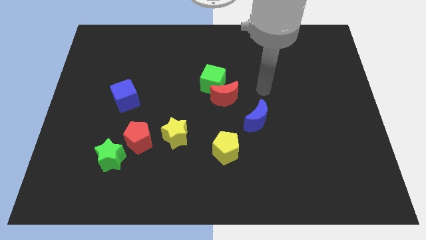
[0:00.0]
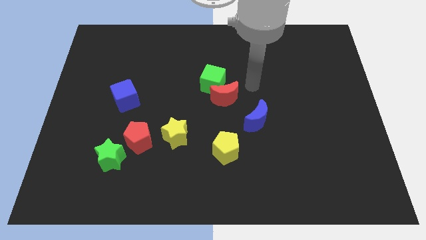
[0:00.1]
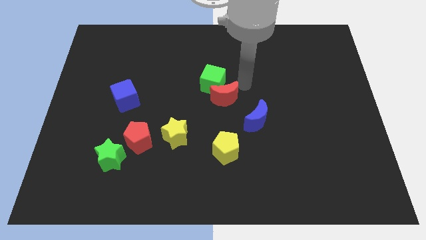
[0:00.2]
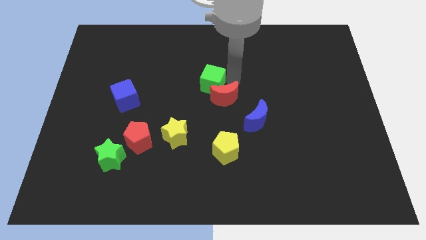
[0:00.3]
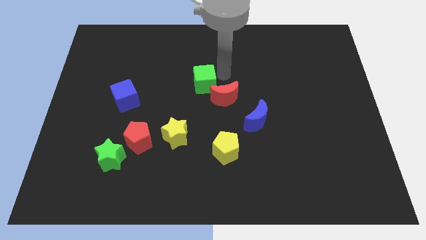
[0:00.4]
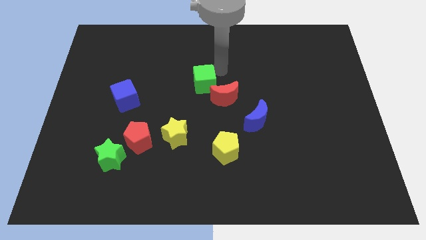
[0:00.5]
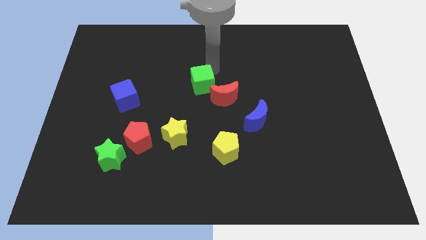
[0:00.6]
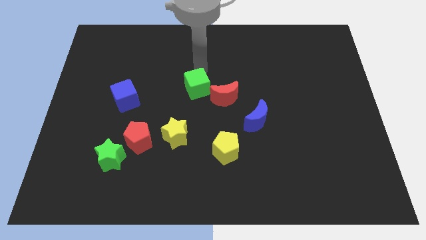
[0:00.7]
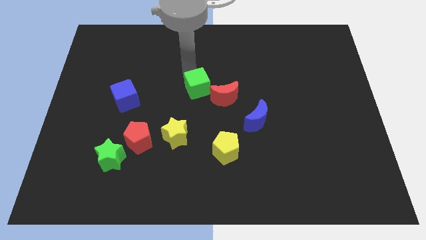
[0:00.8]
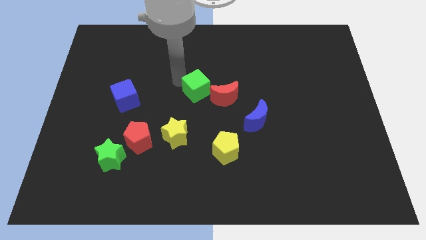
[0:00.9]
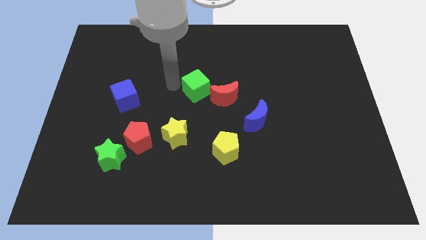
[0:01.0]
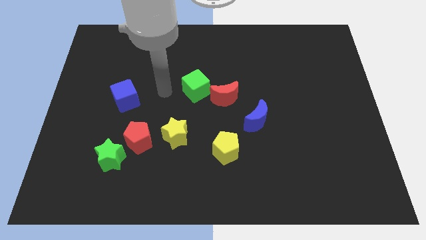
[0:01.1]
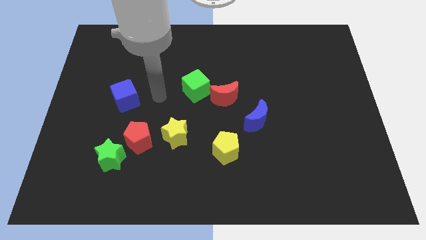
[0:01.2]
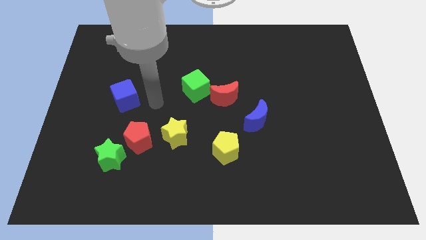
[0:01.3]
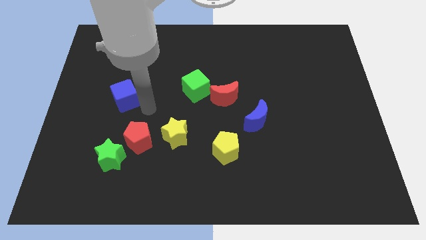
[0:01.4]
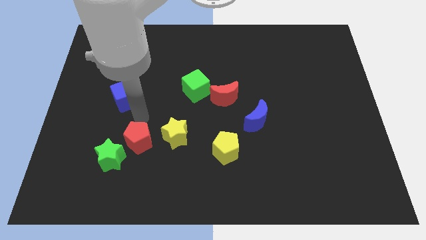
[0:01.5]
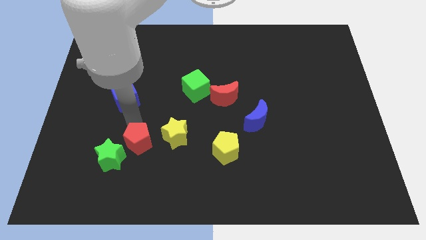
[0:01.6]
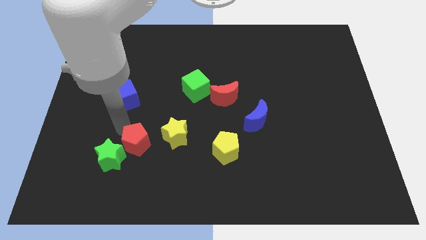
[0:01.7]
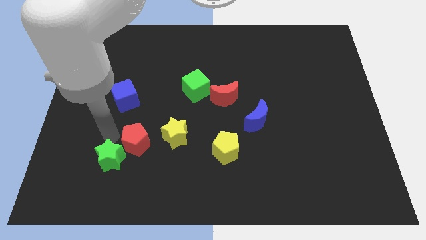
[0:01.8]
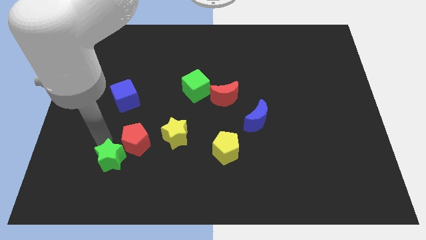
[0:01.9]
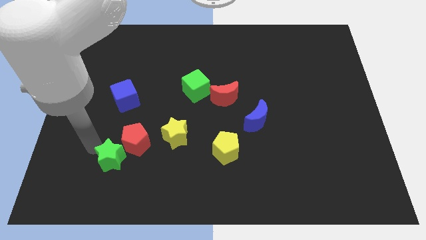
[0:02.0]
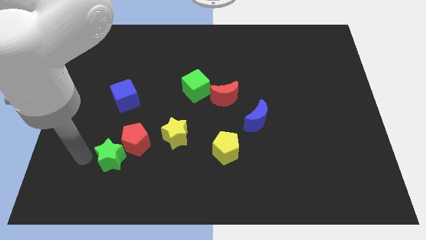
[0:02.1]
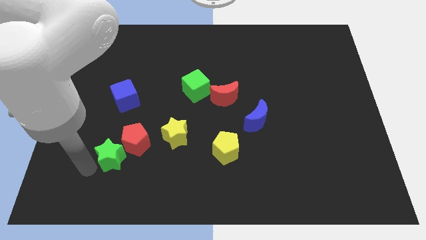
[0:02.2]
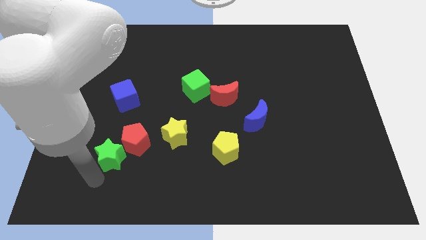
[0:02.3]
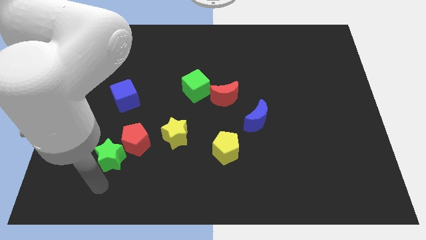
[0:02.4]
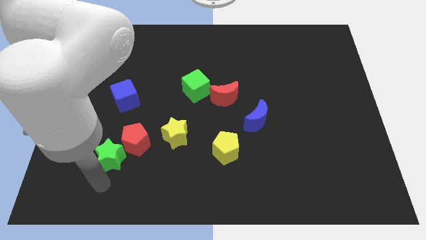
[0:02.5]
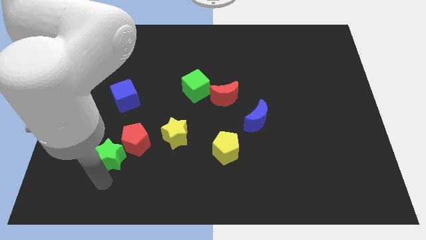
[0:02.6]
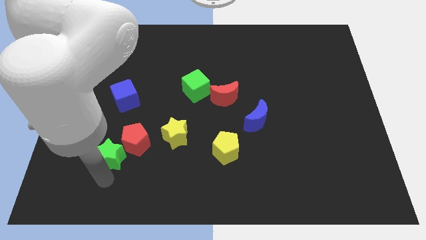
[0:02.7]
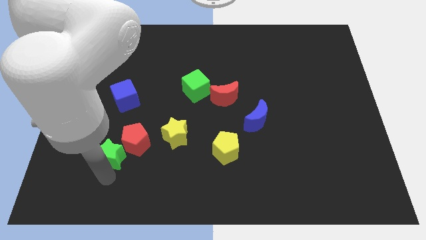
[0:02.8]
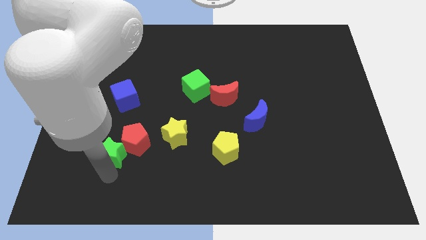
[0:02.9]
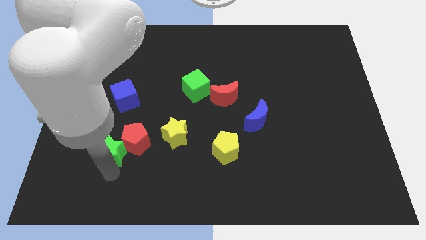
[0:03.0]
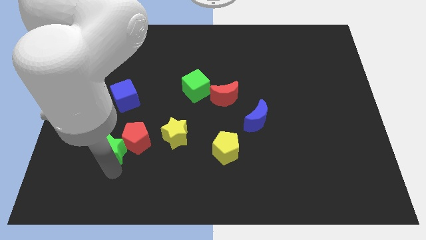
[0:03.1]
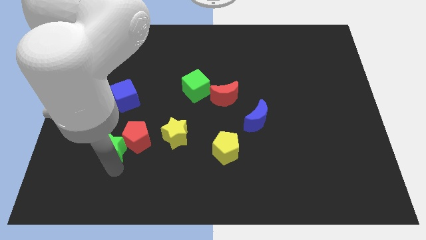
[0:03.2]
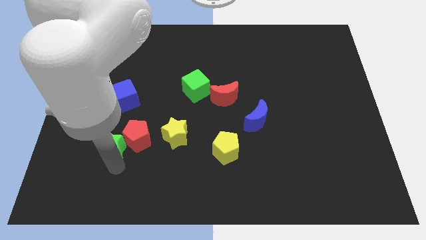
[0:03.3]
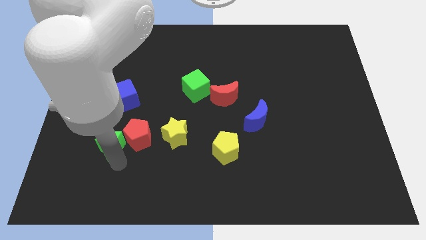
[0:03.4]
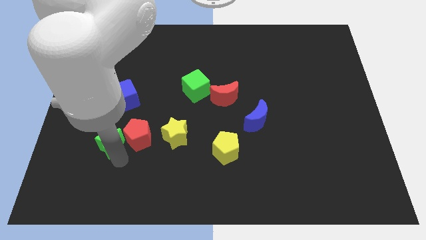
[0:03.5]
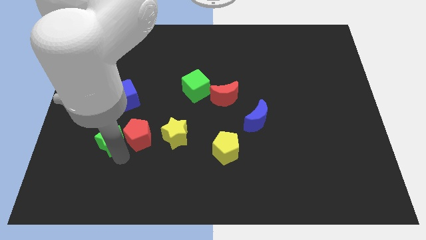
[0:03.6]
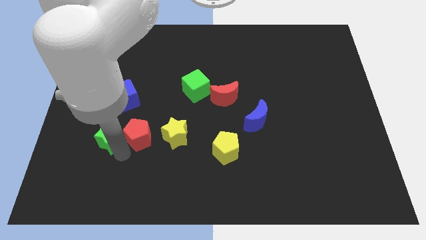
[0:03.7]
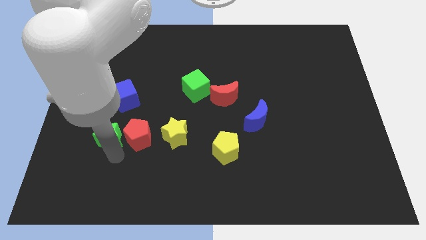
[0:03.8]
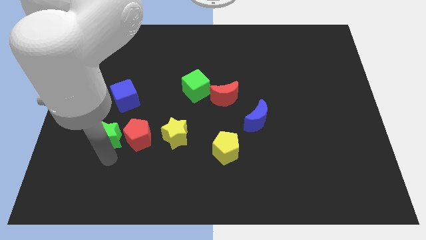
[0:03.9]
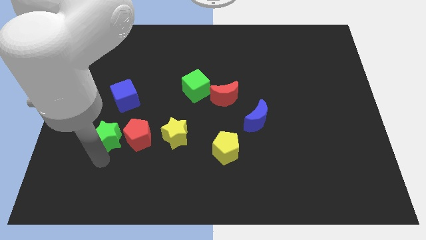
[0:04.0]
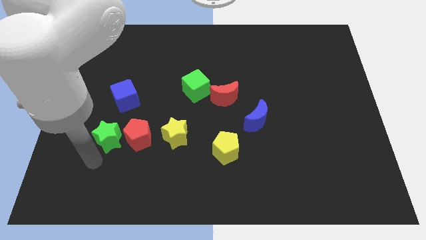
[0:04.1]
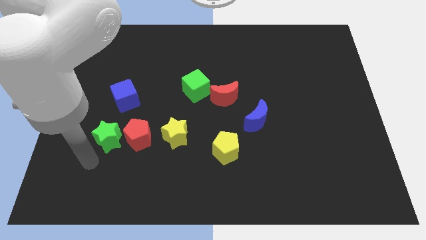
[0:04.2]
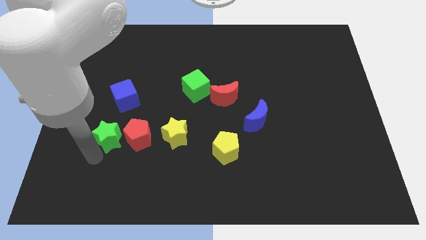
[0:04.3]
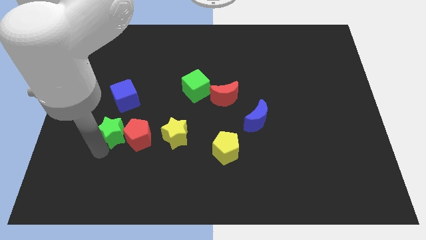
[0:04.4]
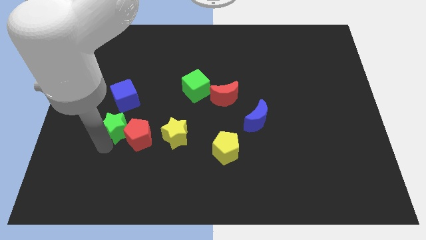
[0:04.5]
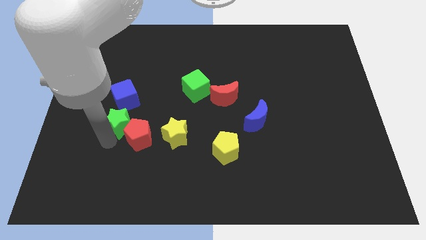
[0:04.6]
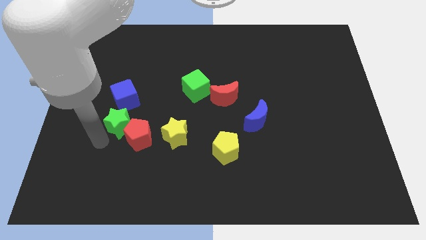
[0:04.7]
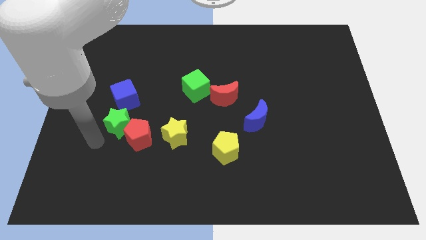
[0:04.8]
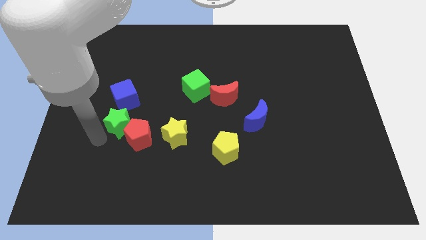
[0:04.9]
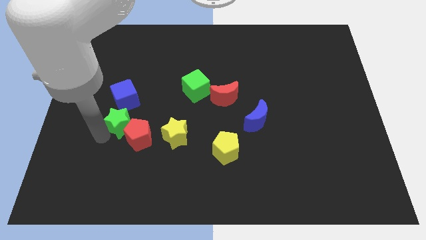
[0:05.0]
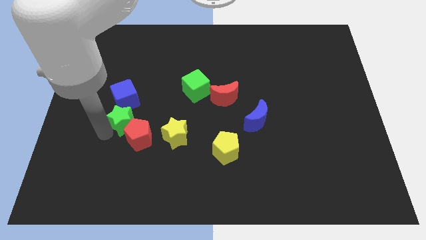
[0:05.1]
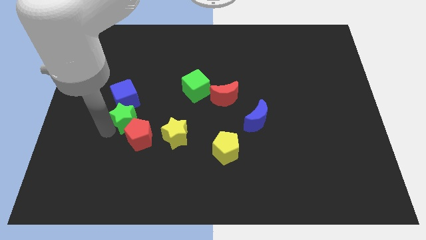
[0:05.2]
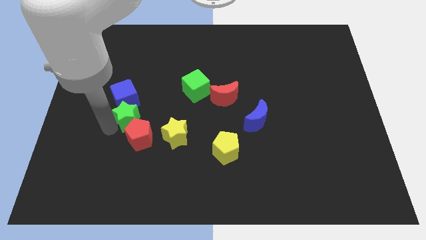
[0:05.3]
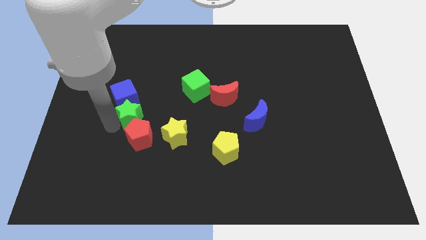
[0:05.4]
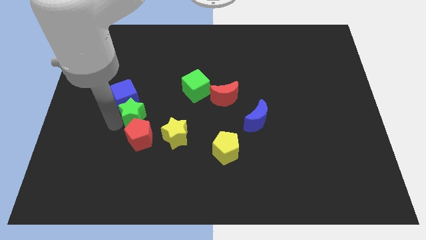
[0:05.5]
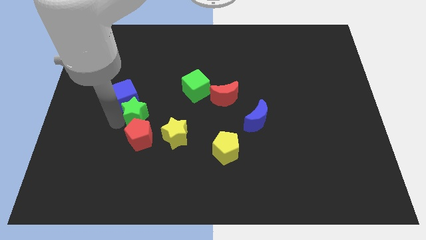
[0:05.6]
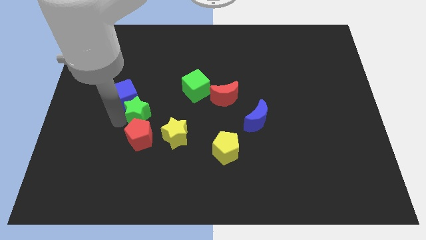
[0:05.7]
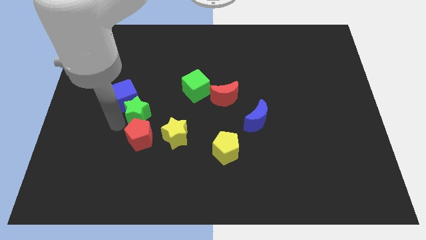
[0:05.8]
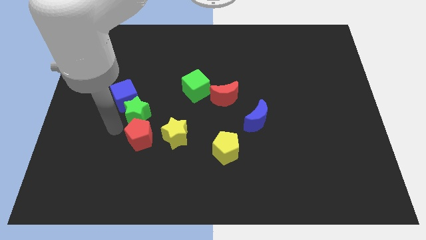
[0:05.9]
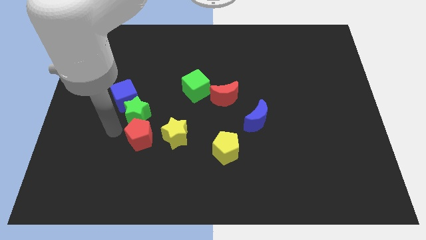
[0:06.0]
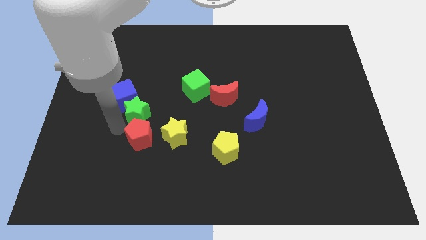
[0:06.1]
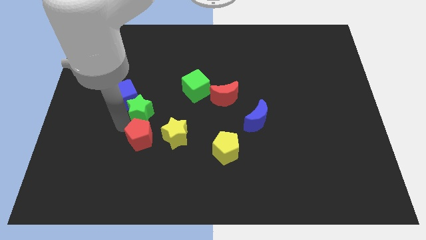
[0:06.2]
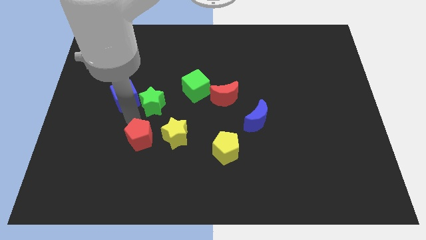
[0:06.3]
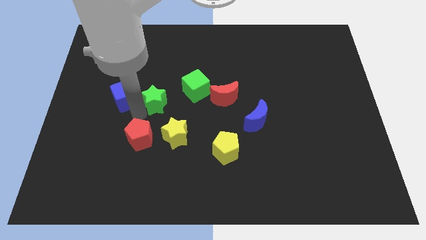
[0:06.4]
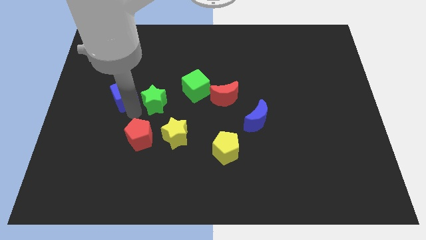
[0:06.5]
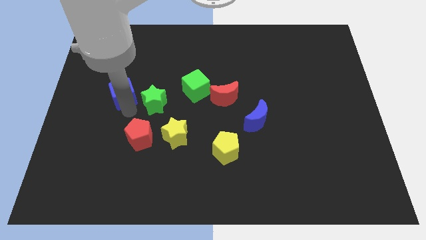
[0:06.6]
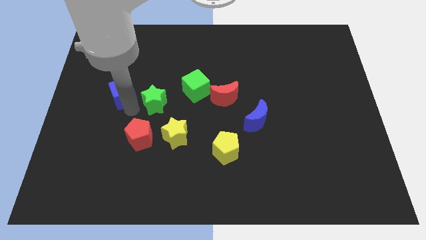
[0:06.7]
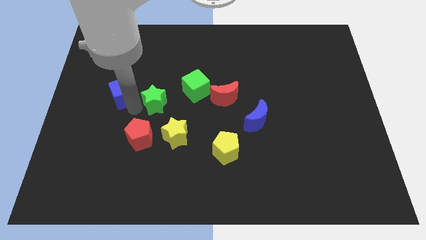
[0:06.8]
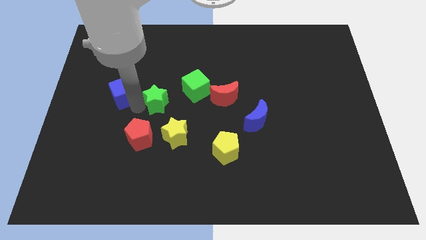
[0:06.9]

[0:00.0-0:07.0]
slide the green star left of the red moon
